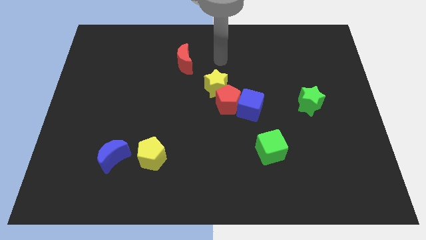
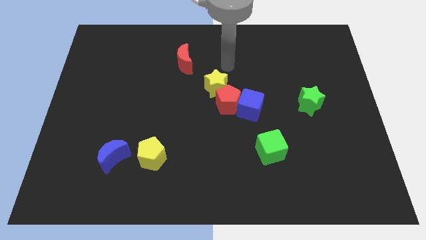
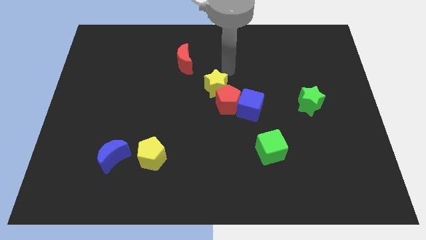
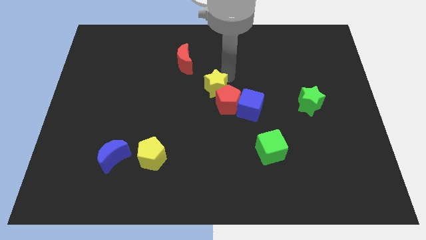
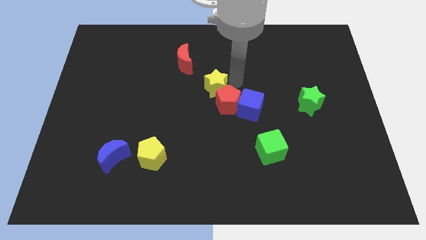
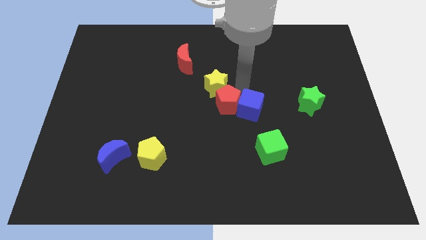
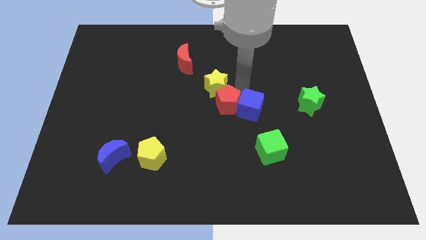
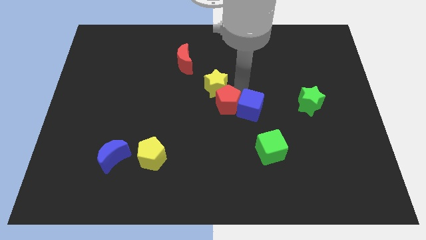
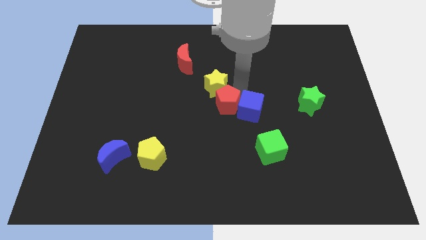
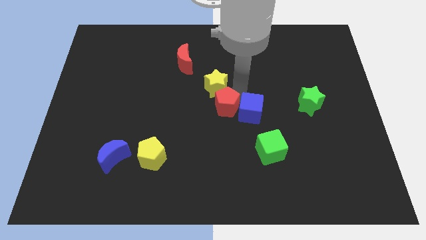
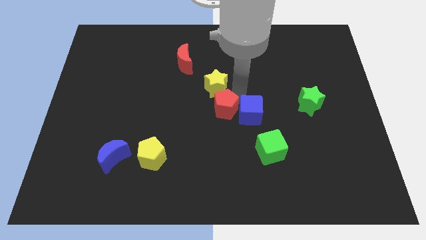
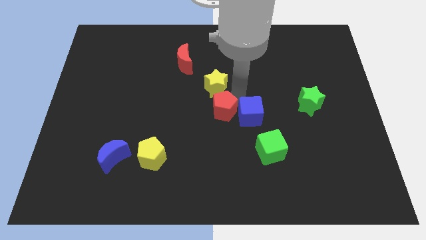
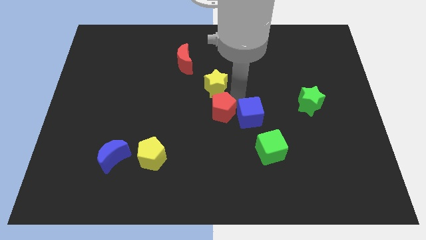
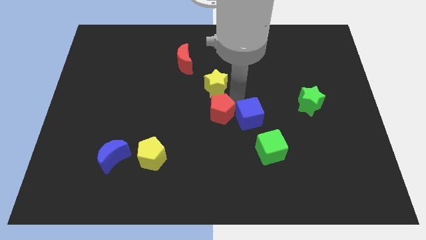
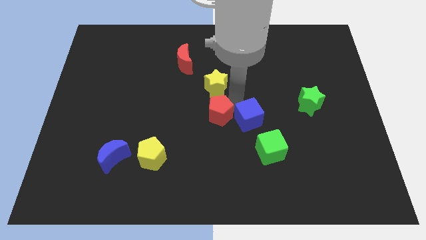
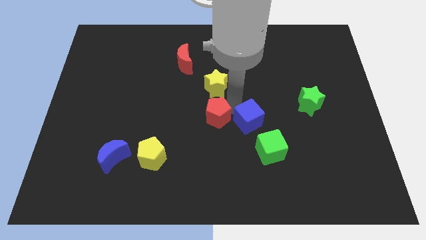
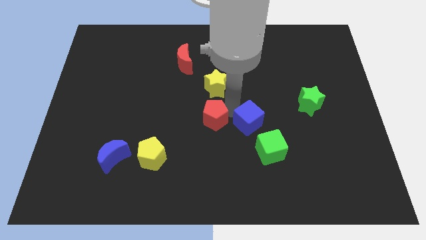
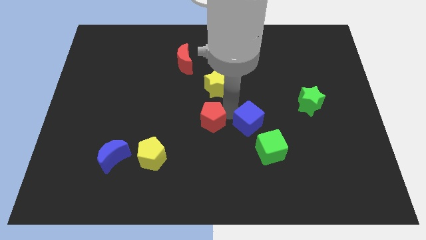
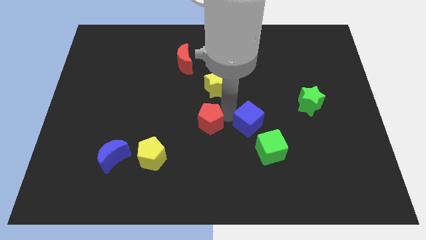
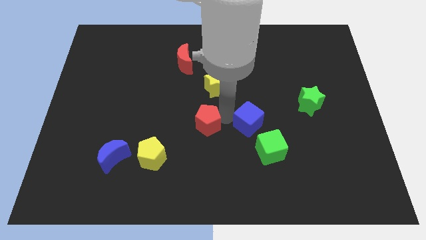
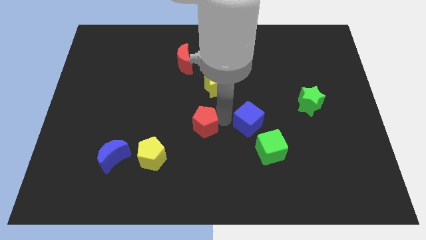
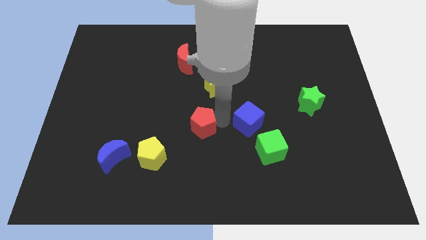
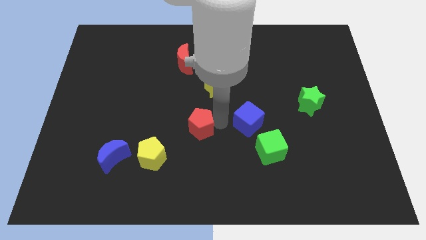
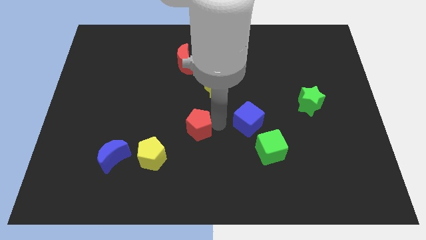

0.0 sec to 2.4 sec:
move the red pentagon away from the blue cube and yellow star

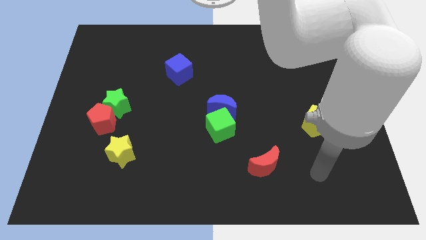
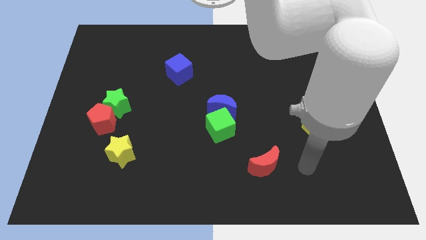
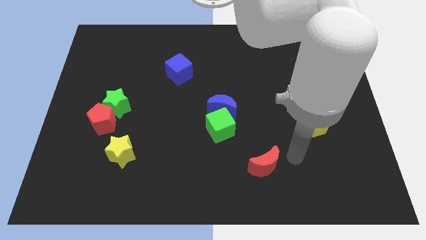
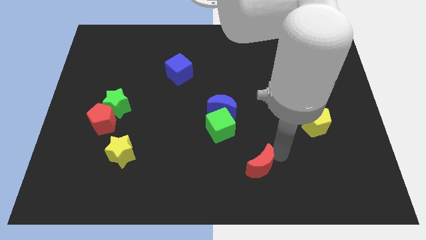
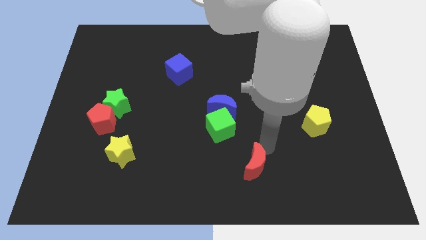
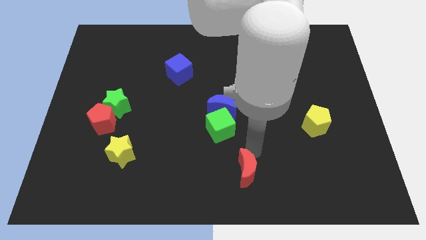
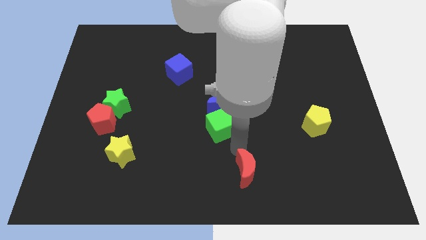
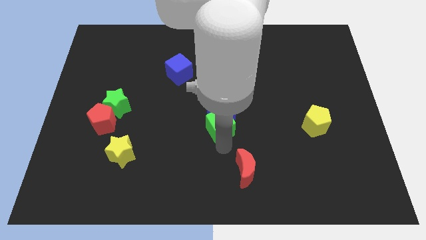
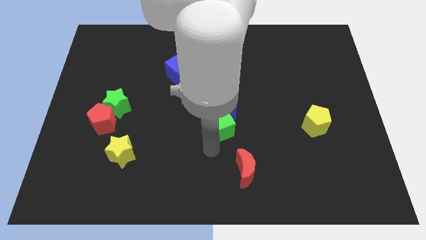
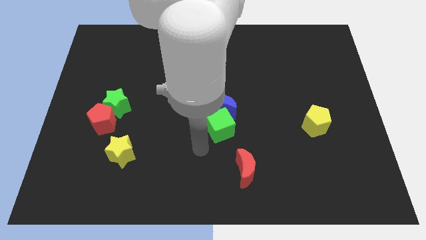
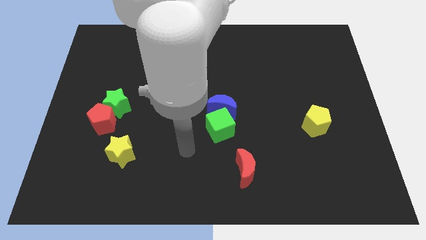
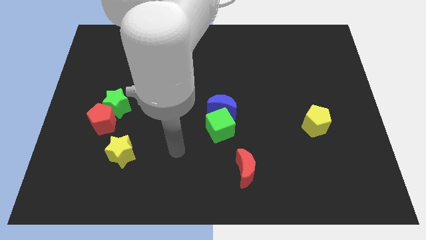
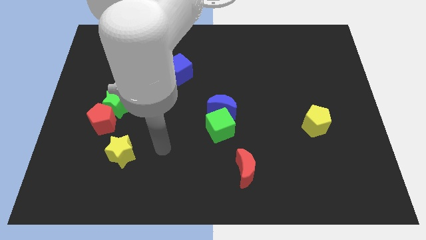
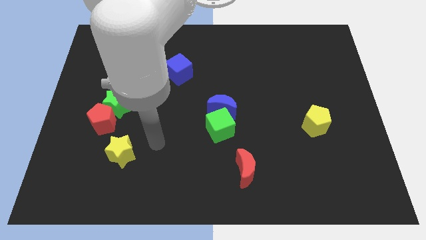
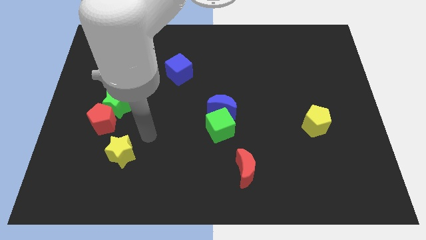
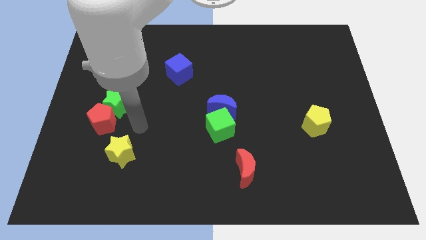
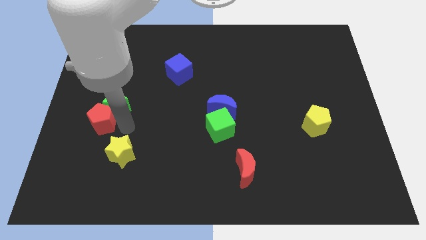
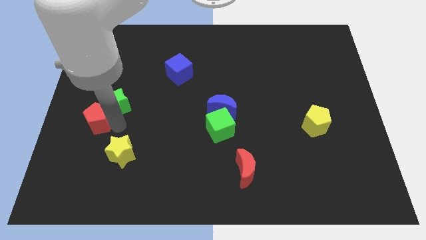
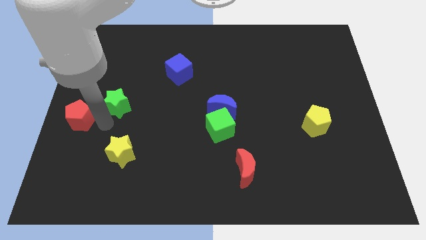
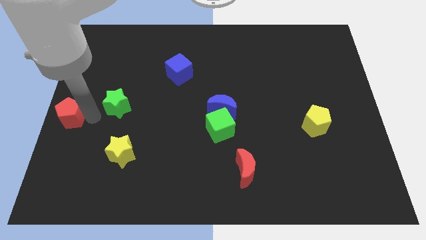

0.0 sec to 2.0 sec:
separate the green star from the red pentagon

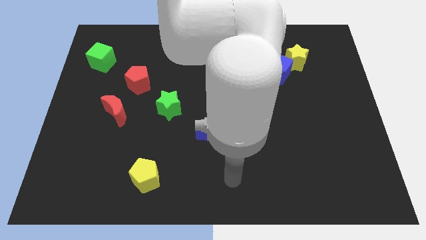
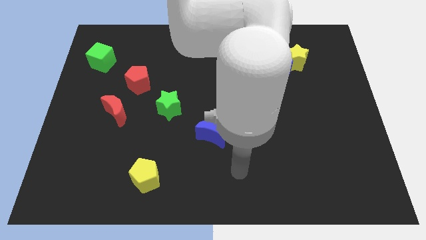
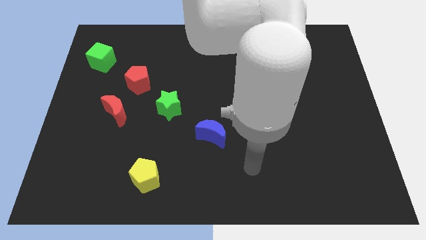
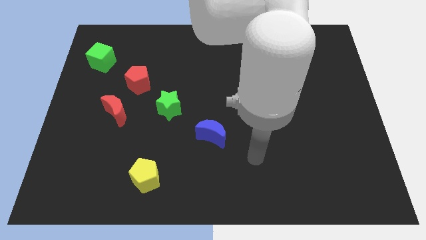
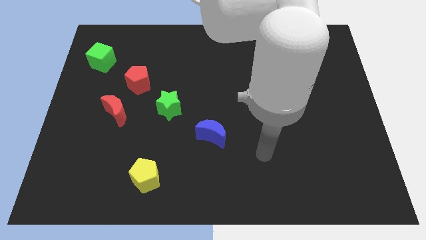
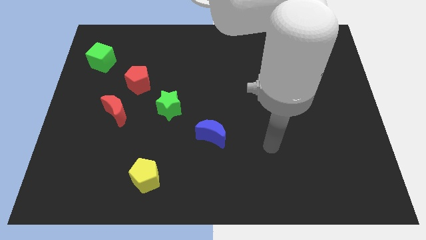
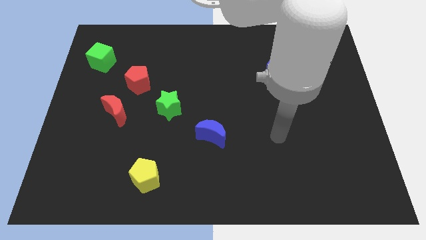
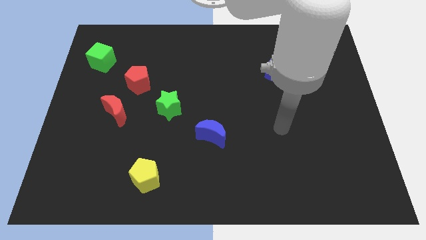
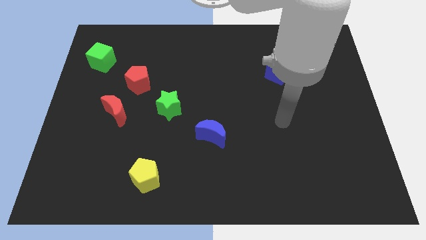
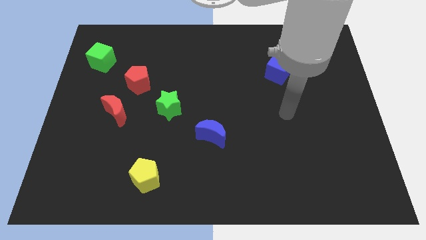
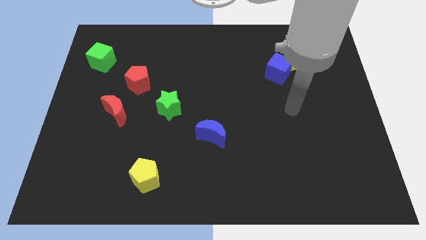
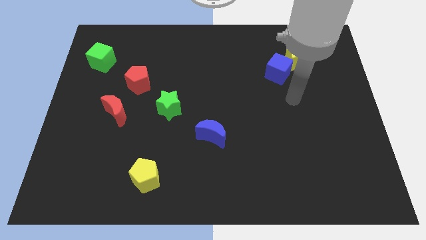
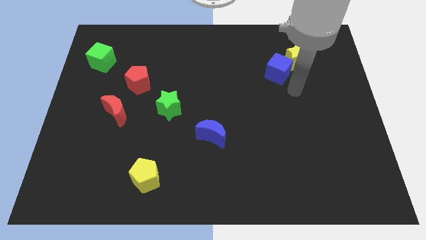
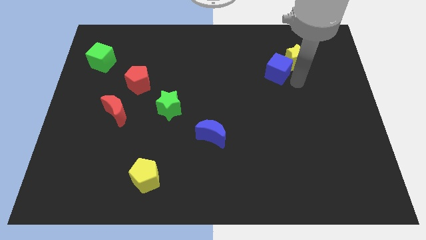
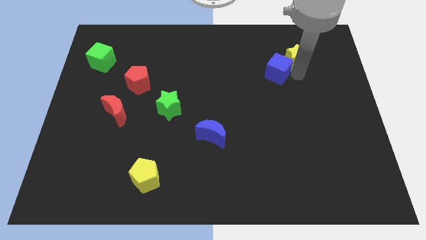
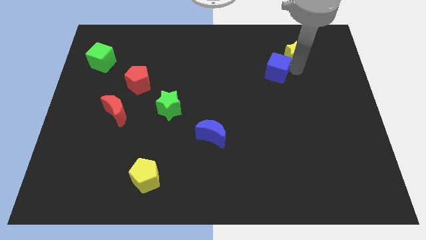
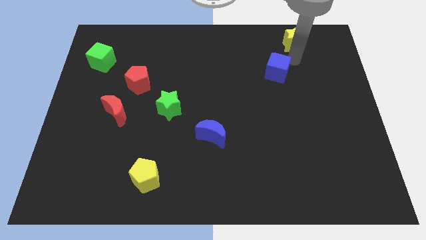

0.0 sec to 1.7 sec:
separate the blue cube from the yellow star

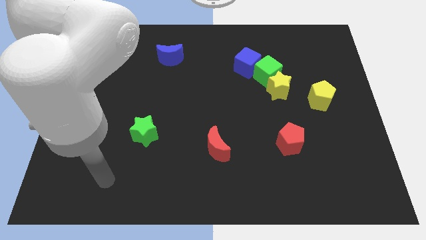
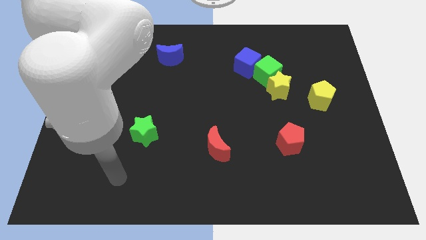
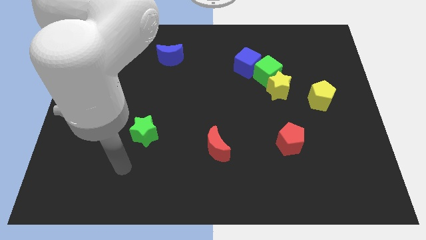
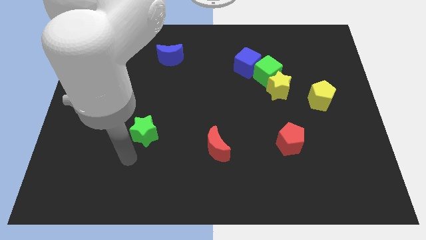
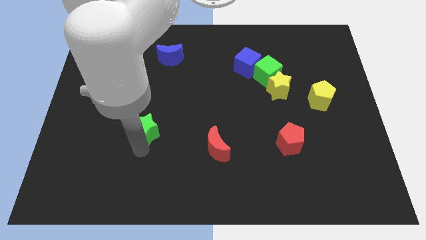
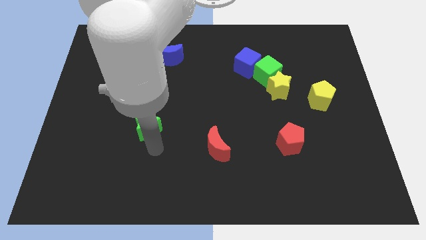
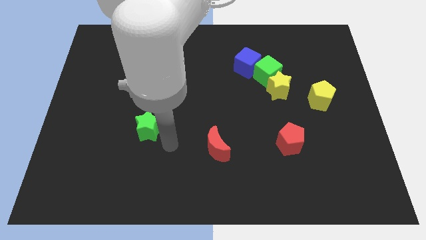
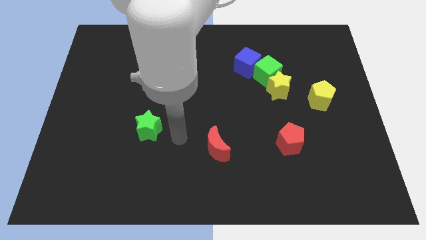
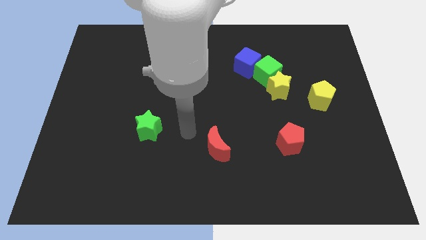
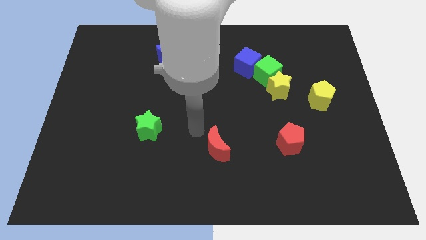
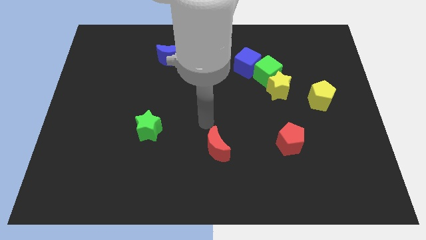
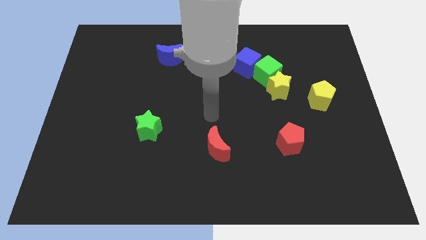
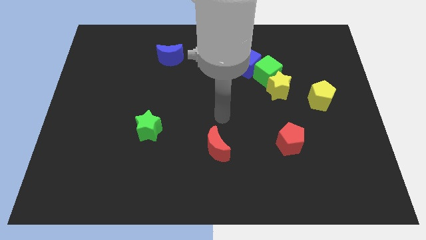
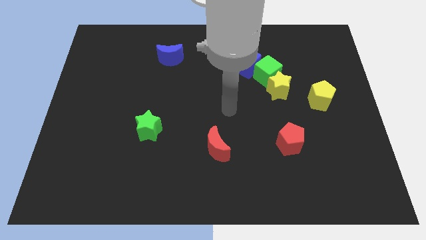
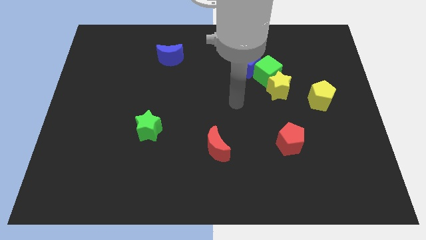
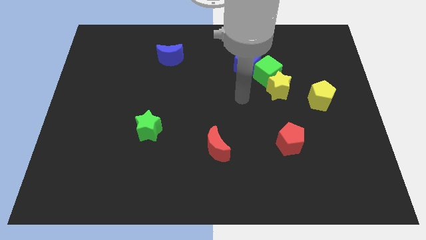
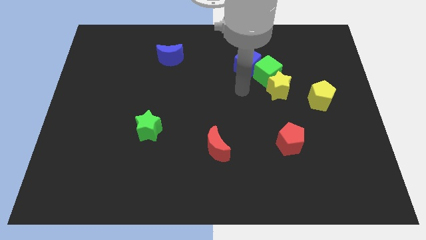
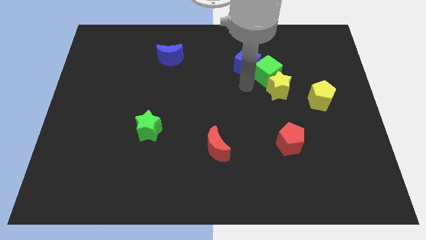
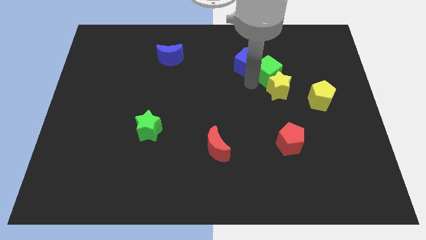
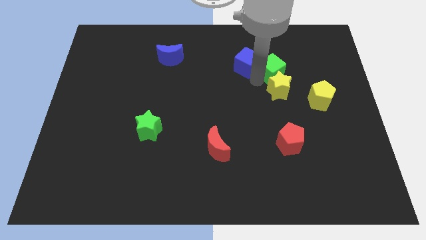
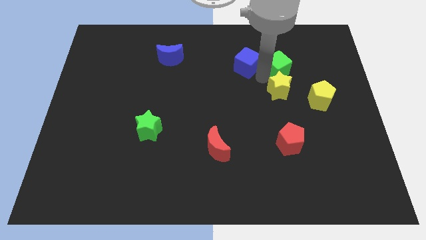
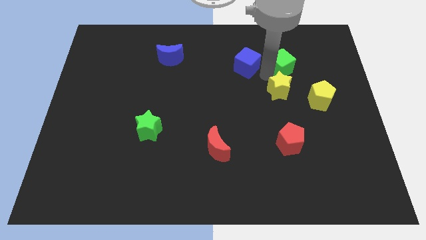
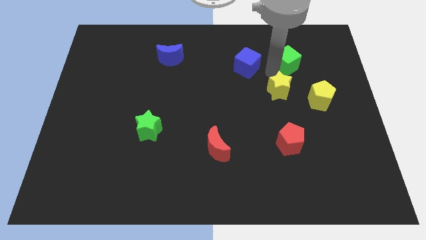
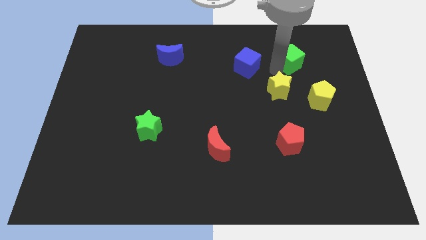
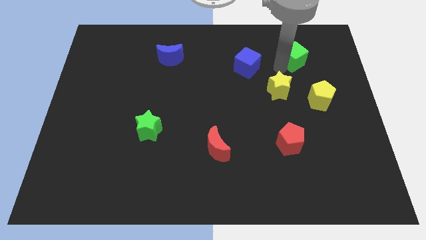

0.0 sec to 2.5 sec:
separate the green cube from the yellow star and blue cube

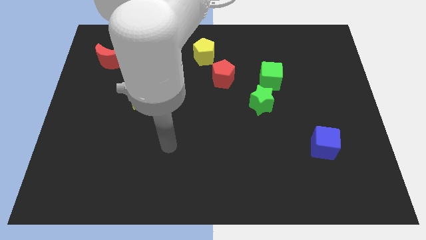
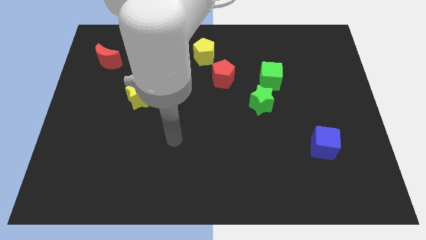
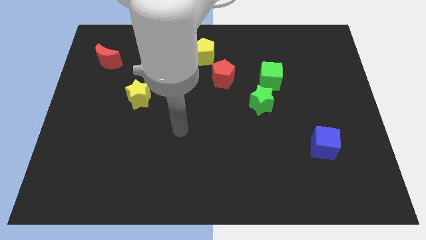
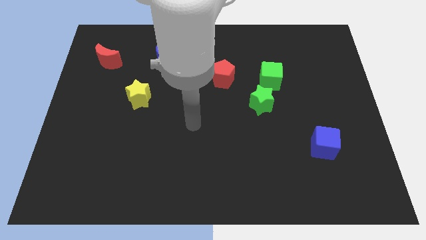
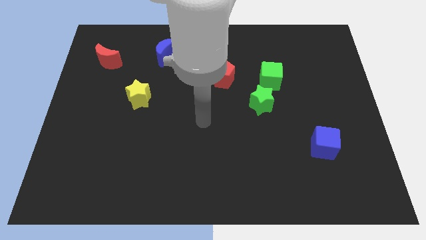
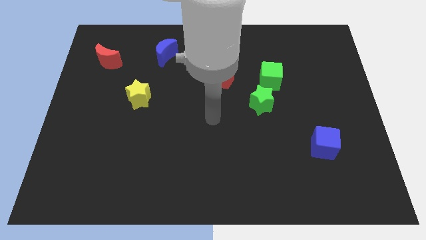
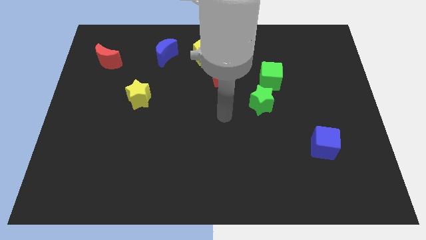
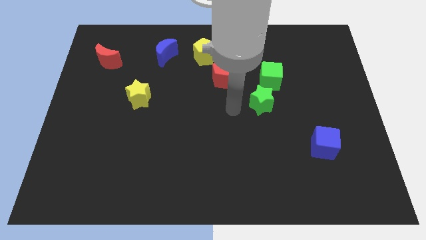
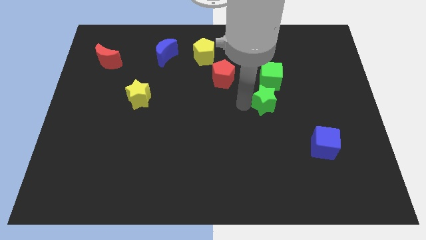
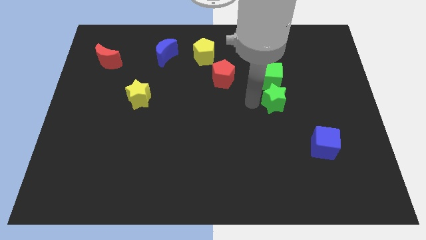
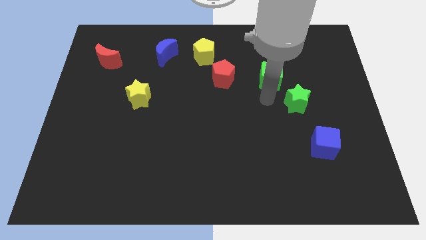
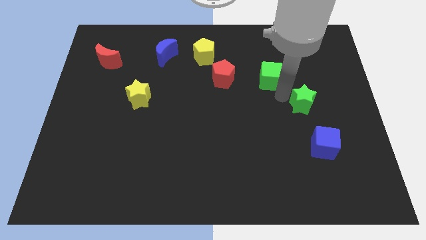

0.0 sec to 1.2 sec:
separate the green cube from the green star
